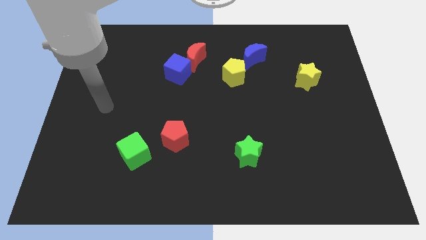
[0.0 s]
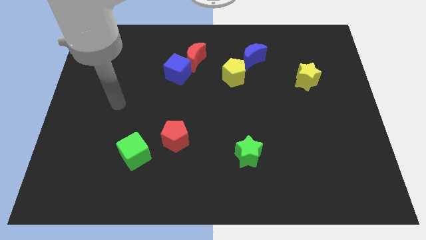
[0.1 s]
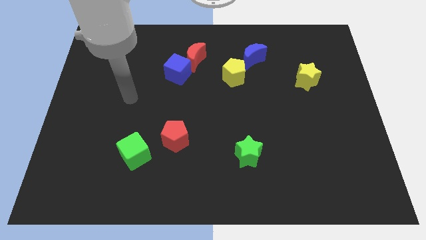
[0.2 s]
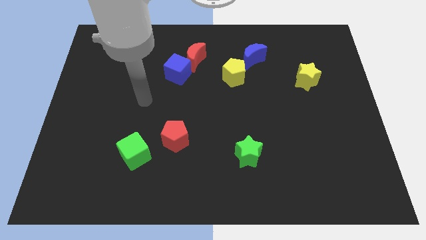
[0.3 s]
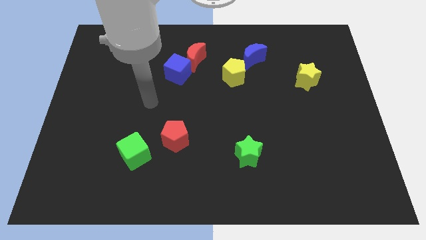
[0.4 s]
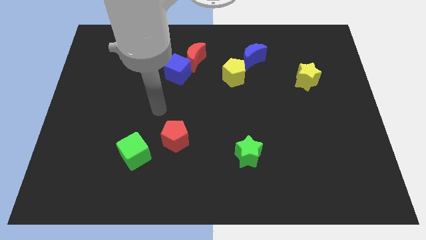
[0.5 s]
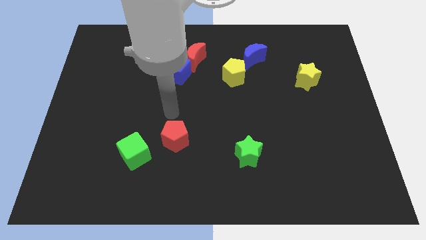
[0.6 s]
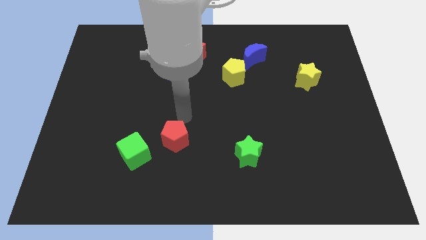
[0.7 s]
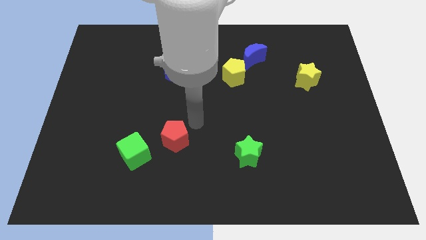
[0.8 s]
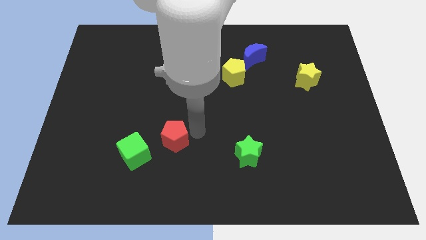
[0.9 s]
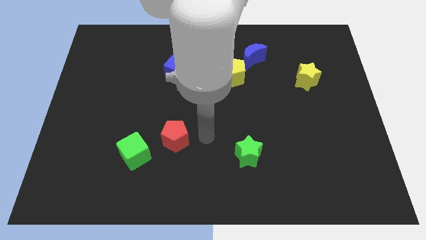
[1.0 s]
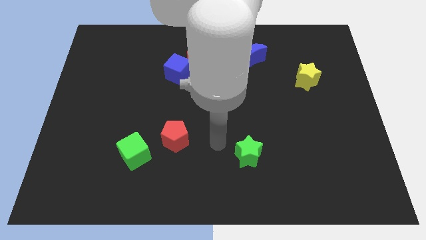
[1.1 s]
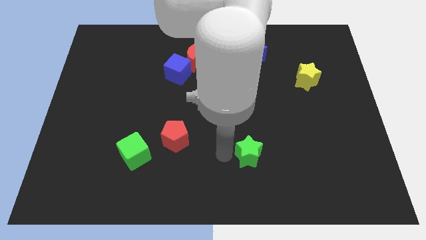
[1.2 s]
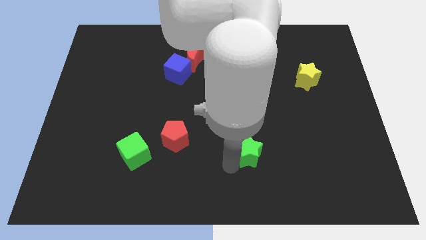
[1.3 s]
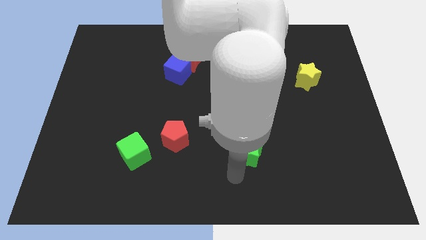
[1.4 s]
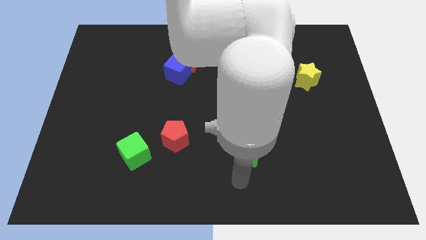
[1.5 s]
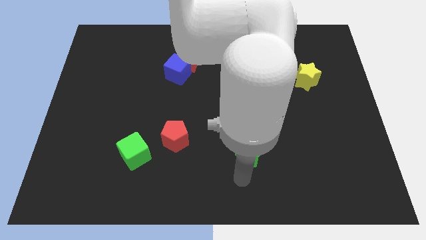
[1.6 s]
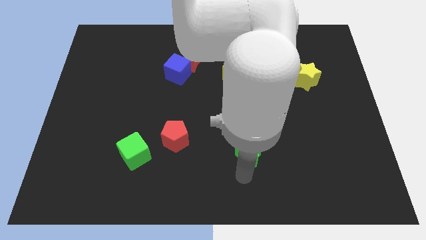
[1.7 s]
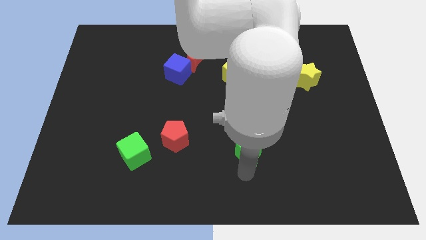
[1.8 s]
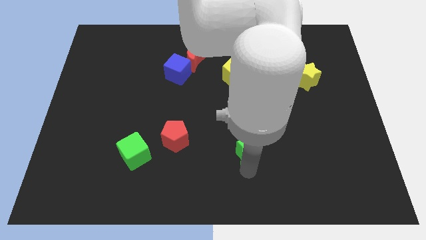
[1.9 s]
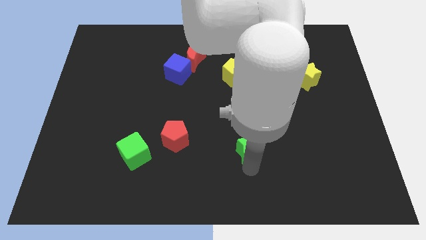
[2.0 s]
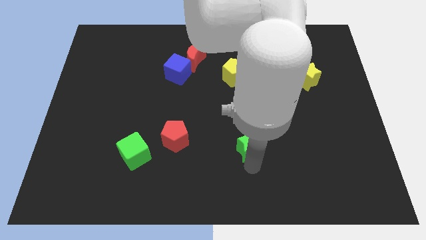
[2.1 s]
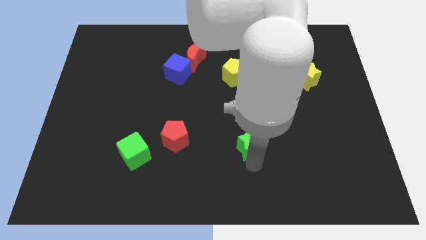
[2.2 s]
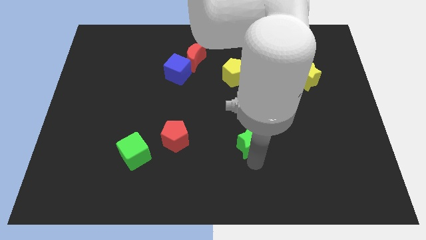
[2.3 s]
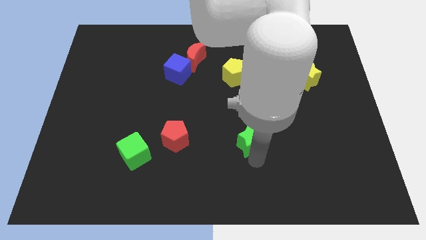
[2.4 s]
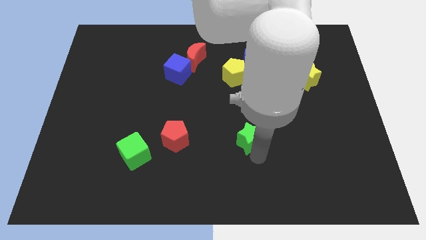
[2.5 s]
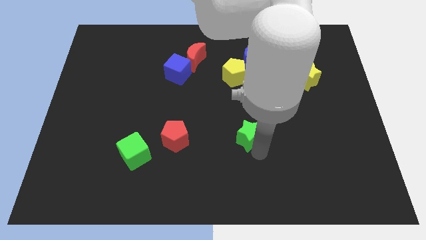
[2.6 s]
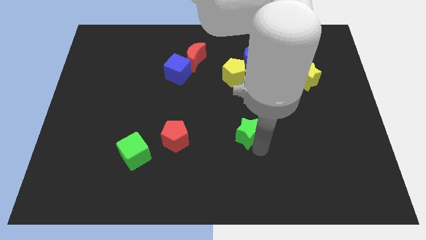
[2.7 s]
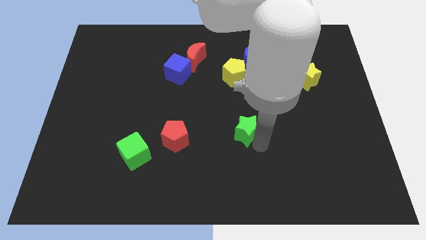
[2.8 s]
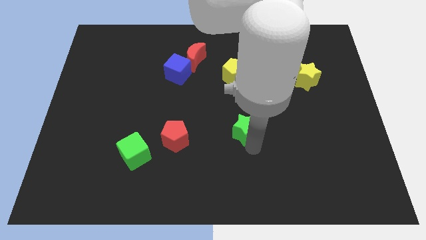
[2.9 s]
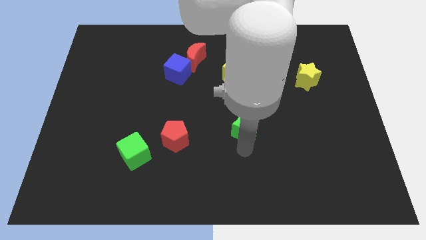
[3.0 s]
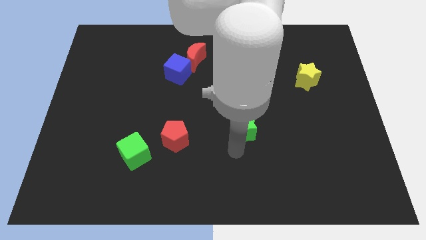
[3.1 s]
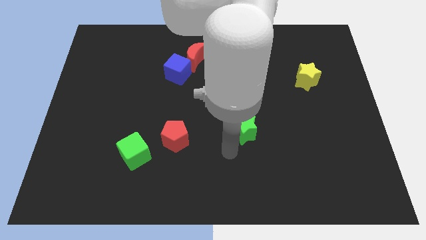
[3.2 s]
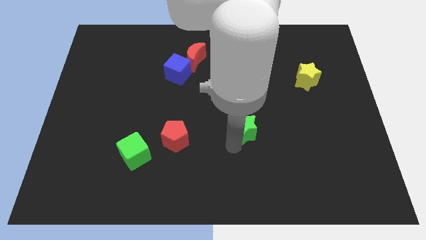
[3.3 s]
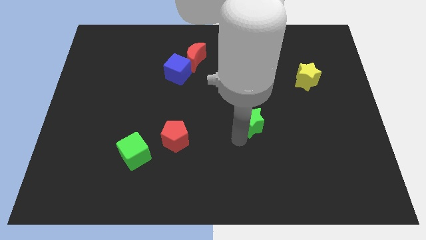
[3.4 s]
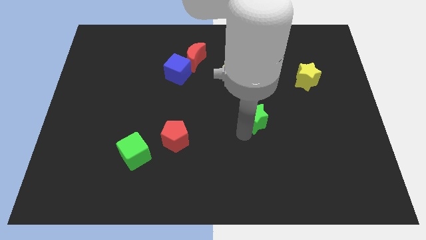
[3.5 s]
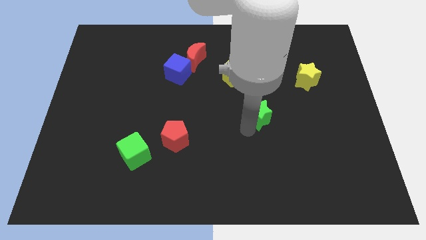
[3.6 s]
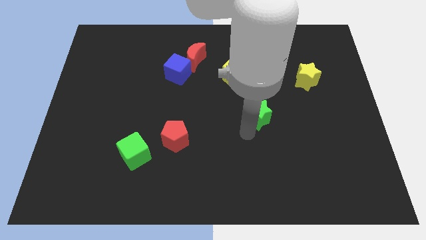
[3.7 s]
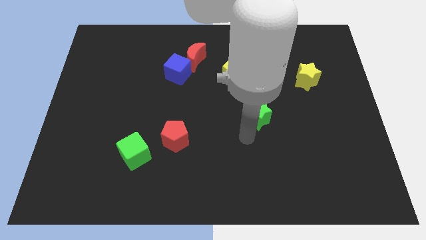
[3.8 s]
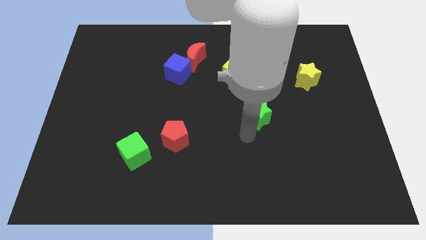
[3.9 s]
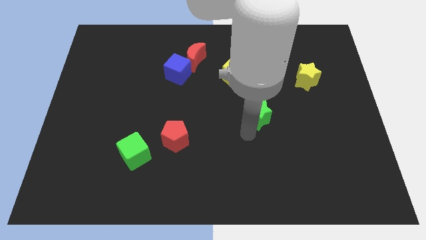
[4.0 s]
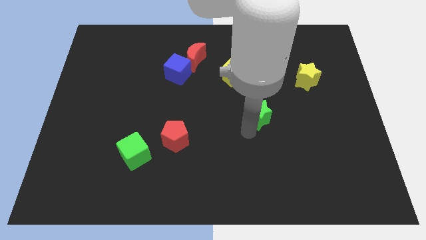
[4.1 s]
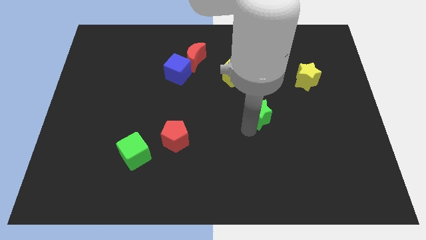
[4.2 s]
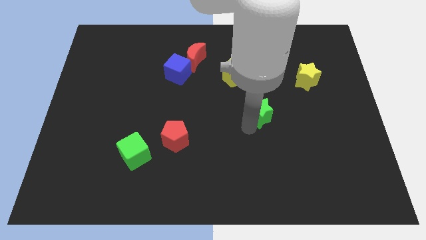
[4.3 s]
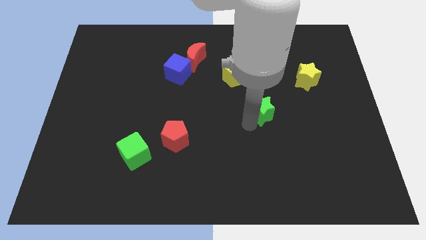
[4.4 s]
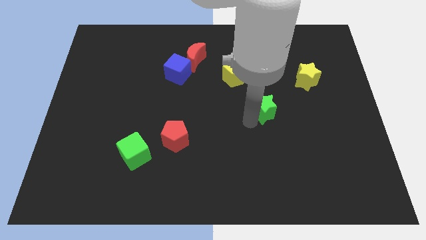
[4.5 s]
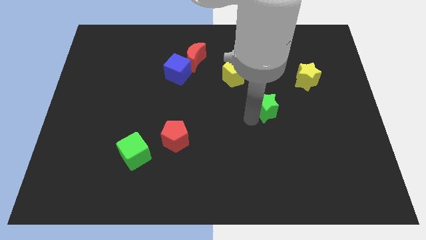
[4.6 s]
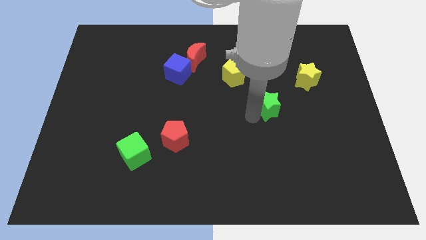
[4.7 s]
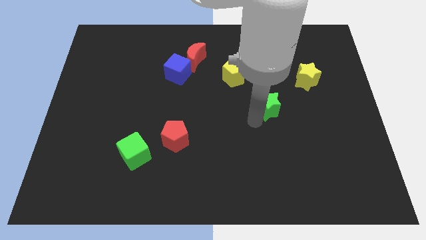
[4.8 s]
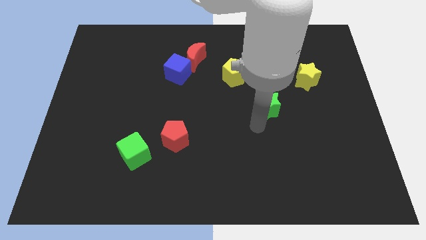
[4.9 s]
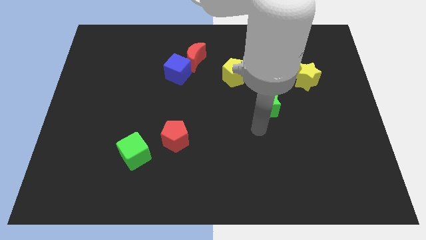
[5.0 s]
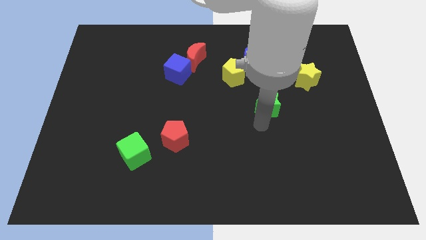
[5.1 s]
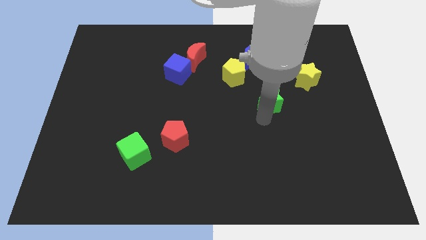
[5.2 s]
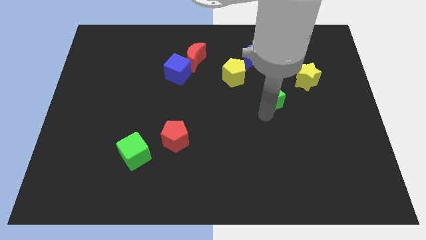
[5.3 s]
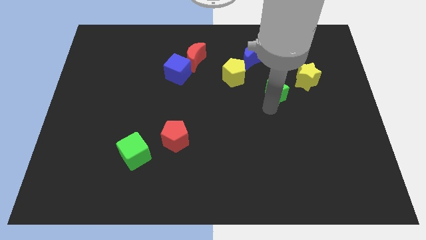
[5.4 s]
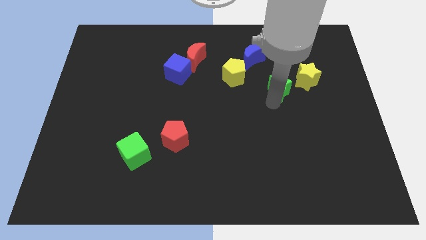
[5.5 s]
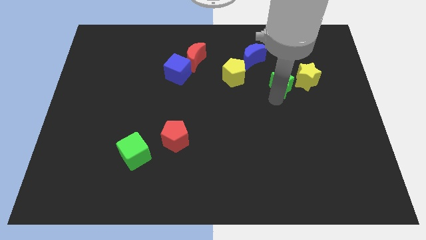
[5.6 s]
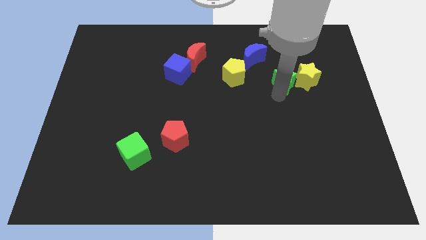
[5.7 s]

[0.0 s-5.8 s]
move the green star to the top left of the yellow star

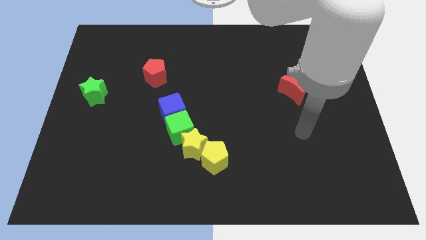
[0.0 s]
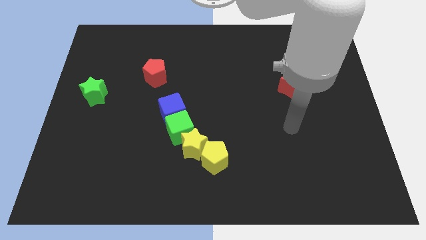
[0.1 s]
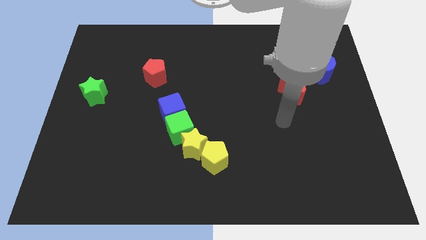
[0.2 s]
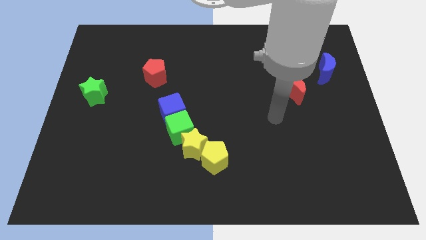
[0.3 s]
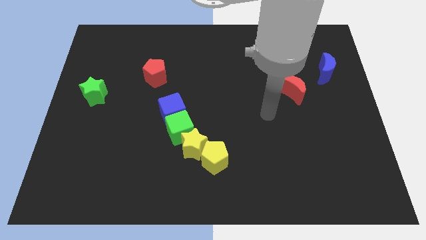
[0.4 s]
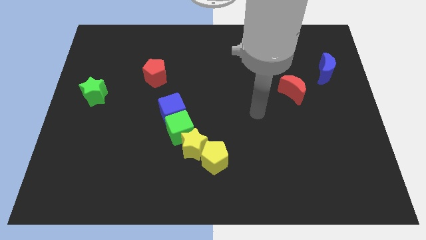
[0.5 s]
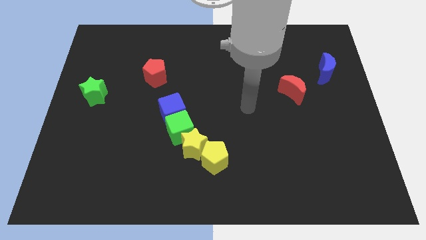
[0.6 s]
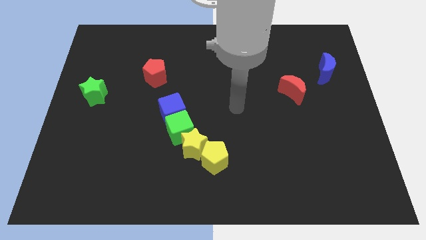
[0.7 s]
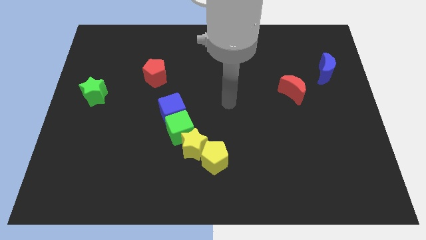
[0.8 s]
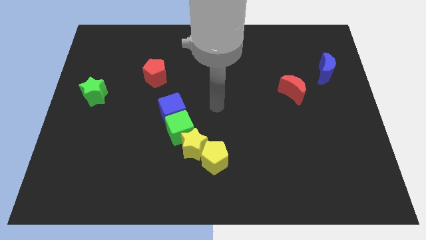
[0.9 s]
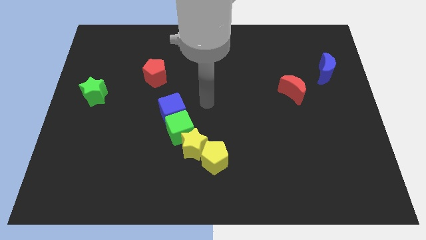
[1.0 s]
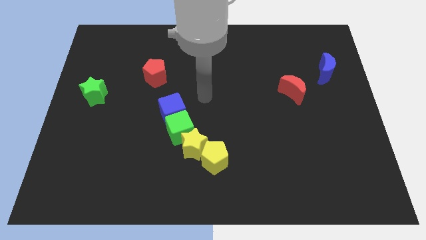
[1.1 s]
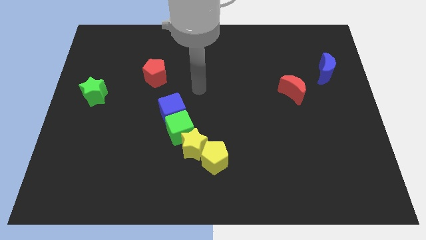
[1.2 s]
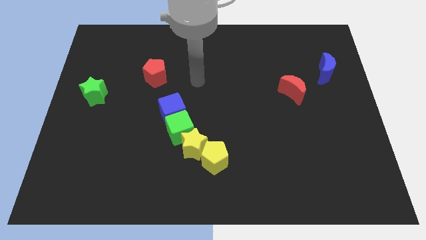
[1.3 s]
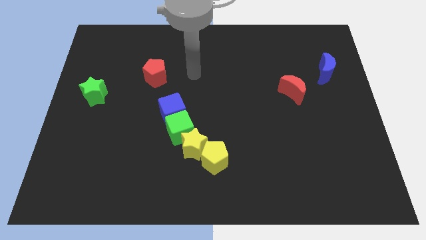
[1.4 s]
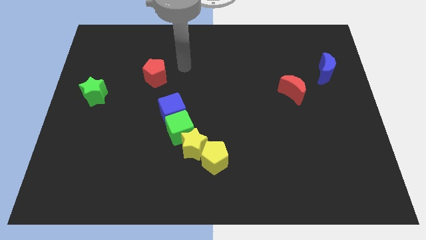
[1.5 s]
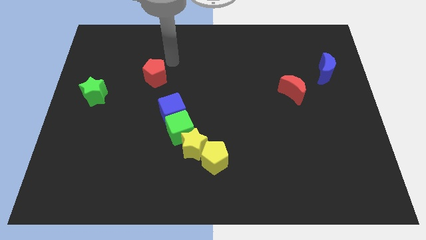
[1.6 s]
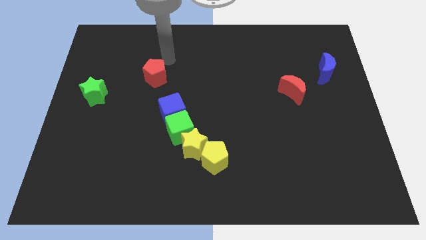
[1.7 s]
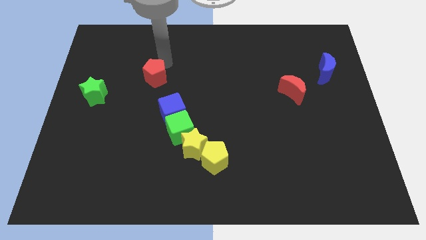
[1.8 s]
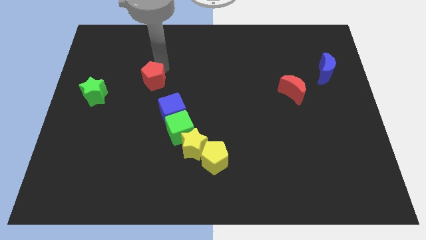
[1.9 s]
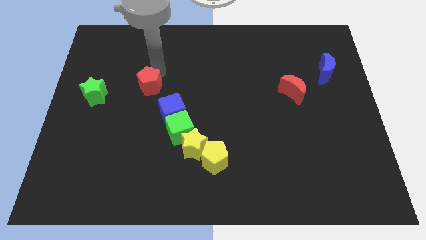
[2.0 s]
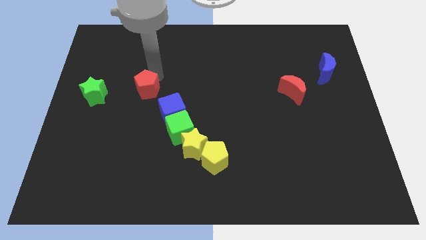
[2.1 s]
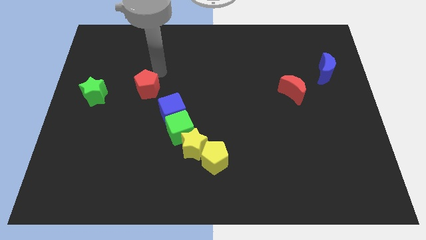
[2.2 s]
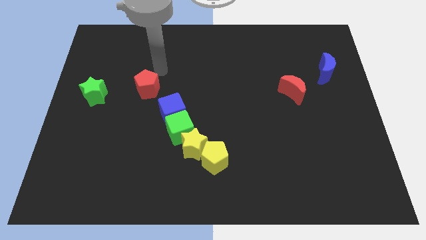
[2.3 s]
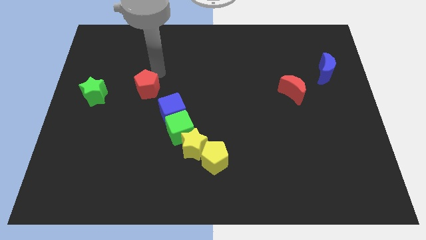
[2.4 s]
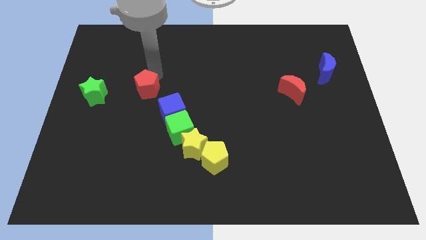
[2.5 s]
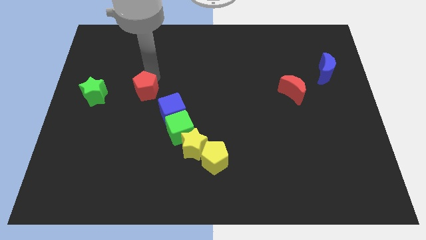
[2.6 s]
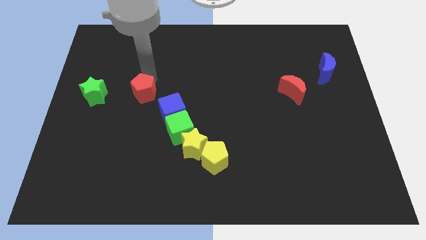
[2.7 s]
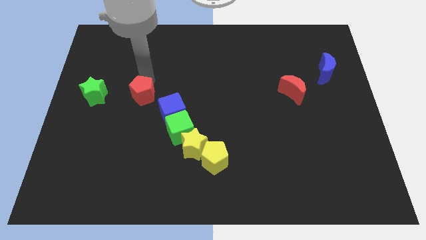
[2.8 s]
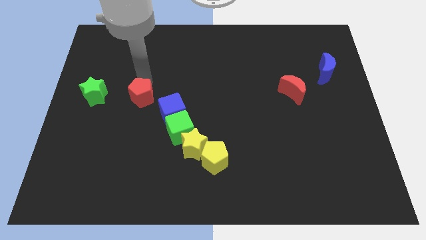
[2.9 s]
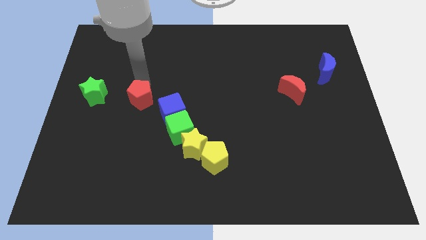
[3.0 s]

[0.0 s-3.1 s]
push the red pentagon to the left side of the blue cube

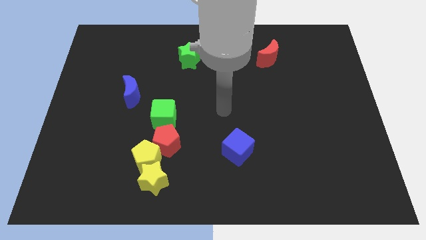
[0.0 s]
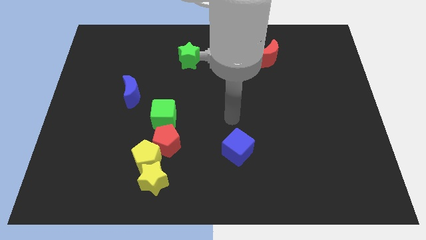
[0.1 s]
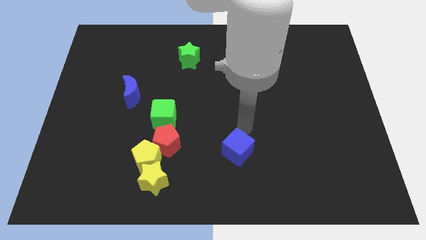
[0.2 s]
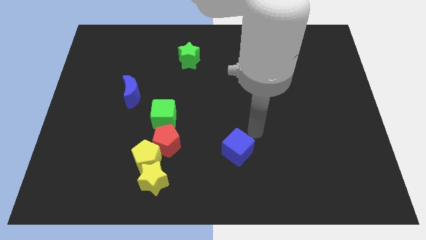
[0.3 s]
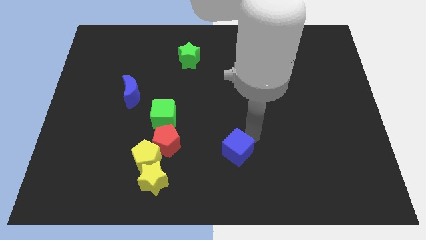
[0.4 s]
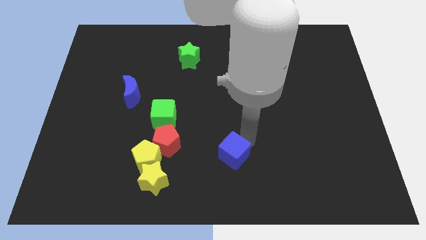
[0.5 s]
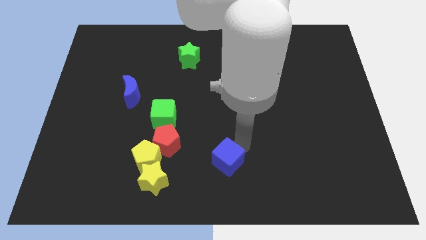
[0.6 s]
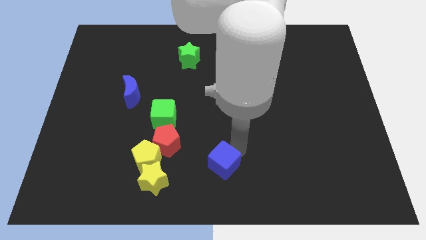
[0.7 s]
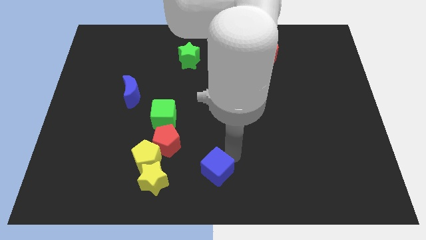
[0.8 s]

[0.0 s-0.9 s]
put the blue cube to the right side of the yellow star
